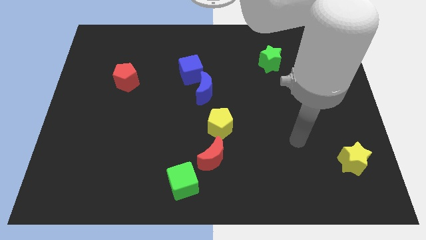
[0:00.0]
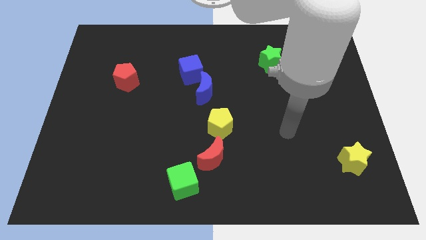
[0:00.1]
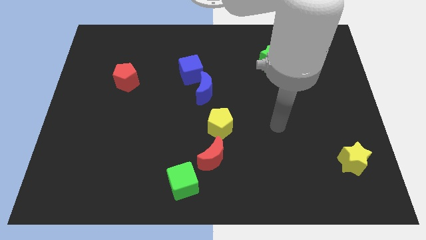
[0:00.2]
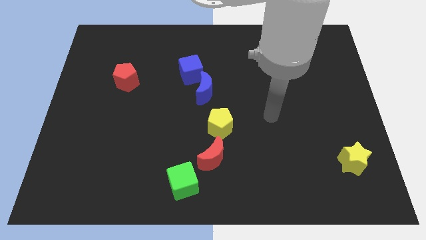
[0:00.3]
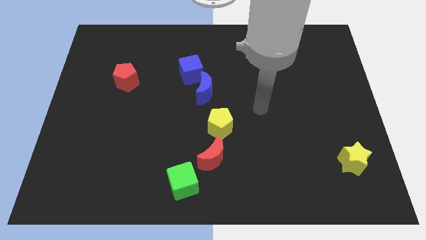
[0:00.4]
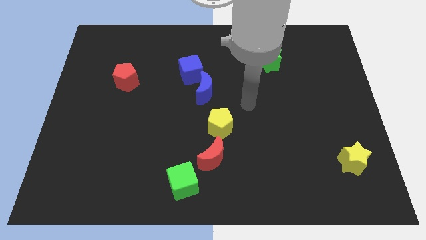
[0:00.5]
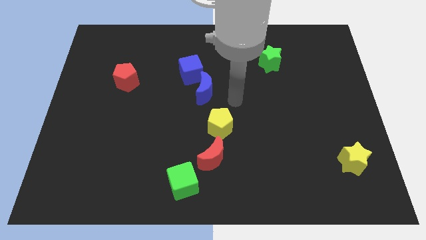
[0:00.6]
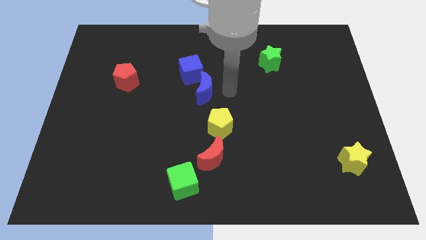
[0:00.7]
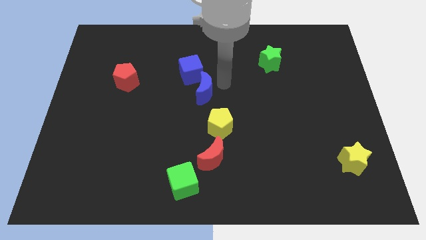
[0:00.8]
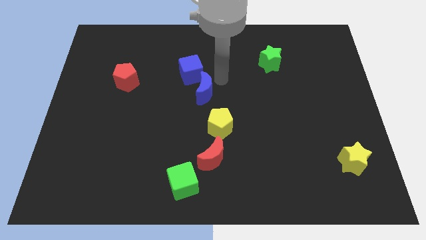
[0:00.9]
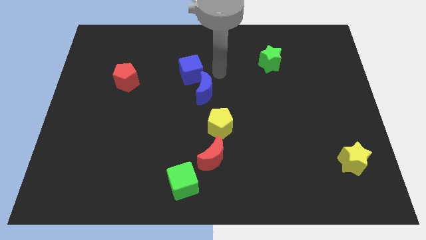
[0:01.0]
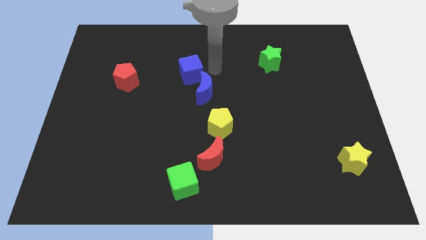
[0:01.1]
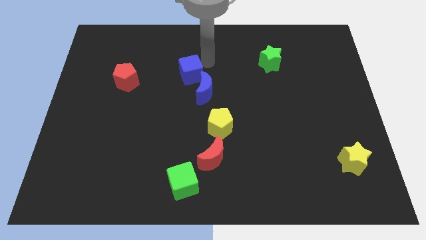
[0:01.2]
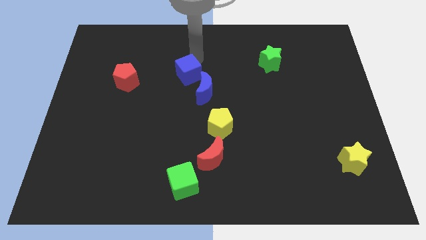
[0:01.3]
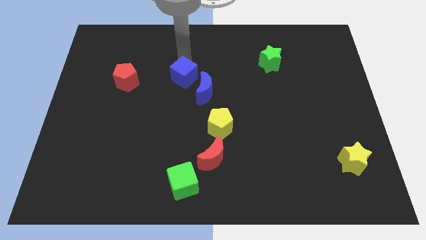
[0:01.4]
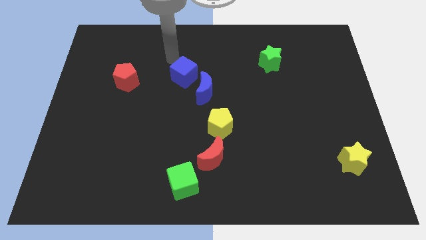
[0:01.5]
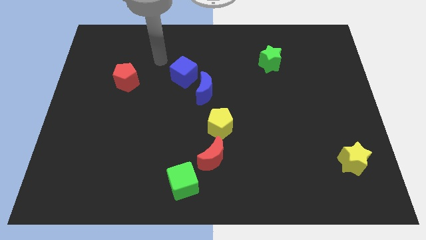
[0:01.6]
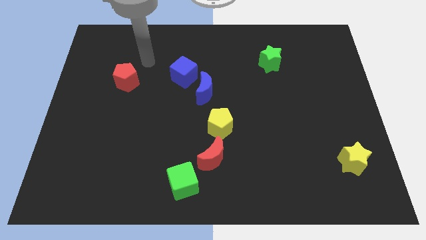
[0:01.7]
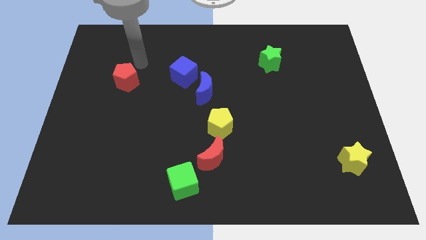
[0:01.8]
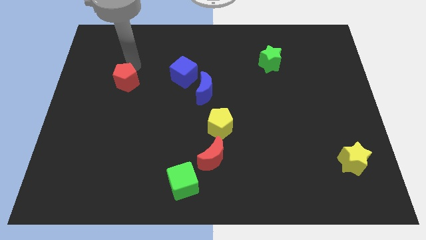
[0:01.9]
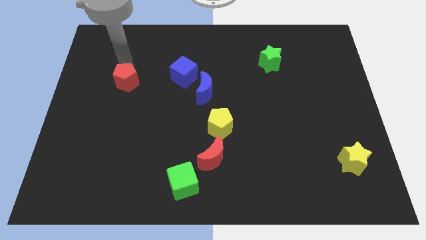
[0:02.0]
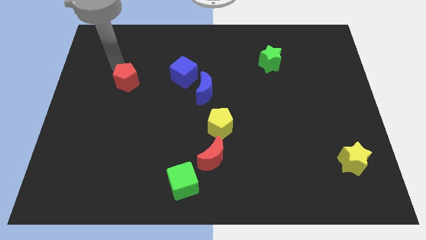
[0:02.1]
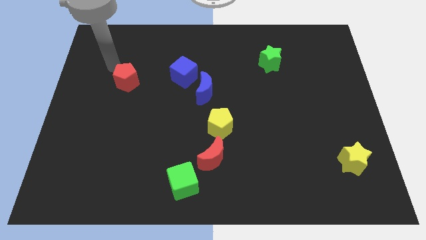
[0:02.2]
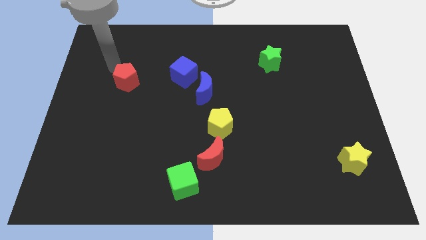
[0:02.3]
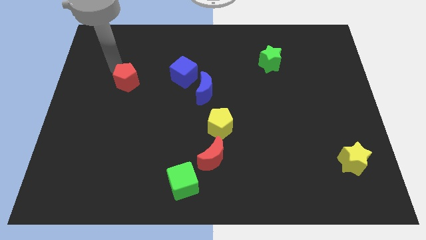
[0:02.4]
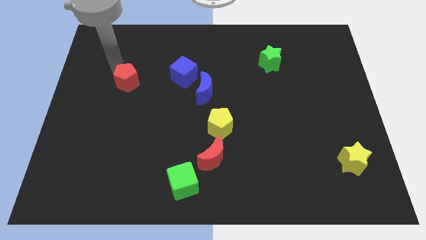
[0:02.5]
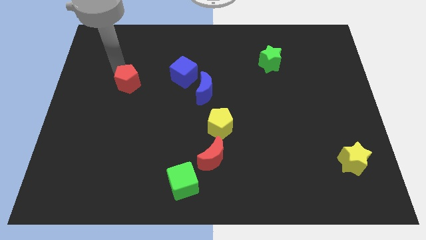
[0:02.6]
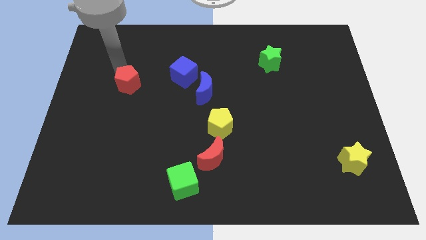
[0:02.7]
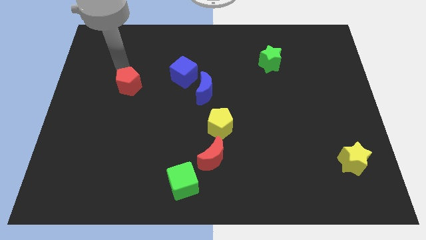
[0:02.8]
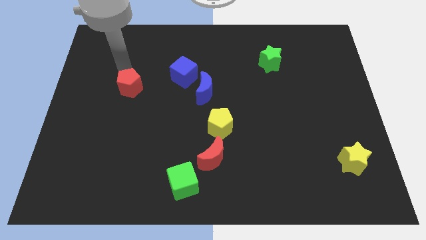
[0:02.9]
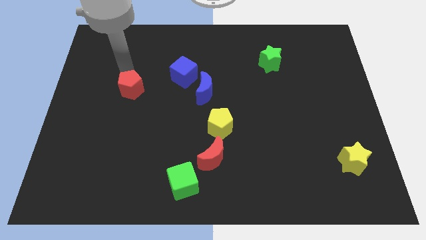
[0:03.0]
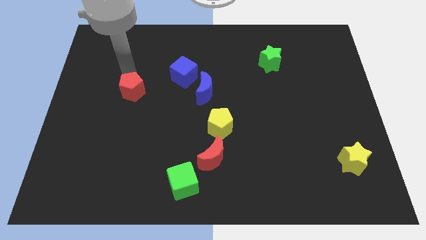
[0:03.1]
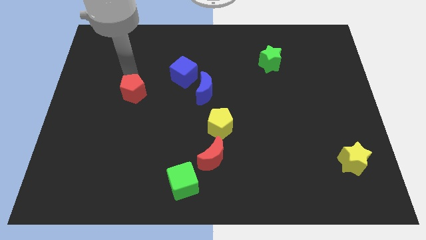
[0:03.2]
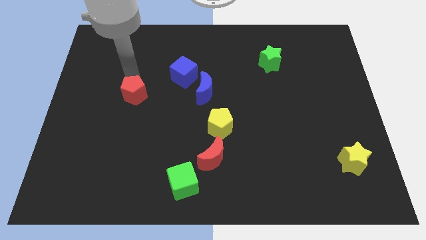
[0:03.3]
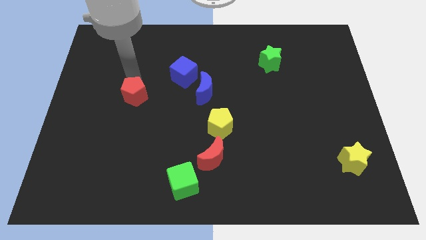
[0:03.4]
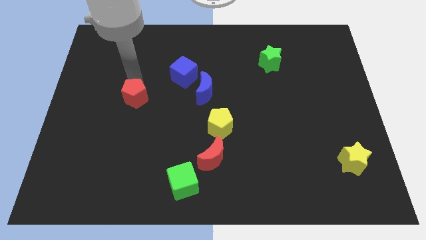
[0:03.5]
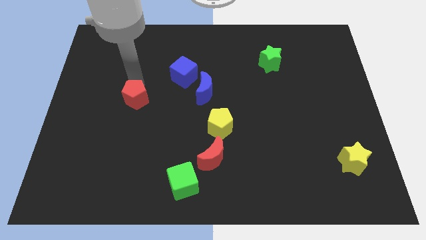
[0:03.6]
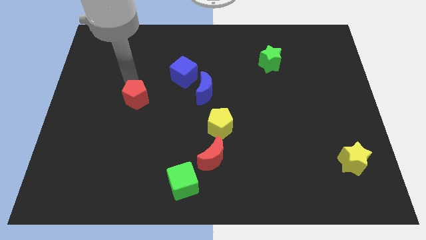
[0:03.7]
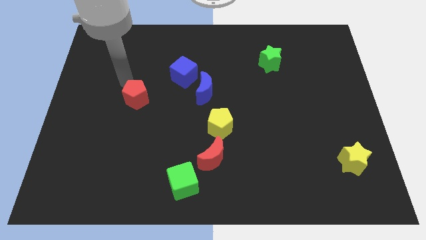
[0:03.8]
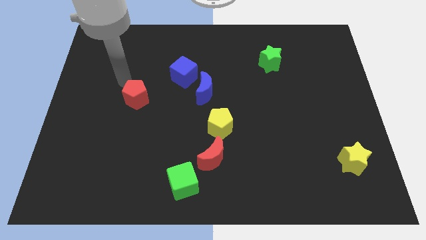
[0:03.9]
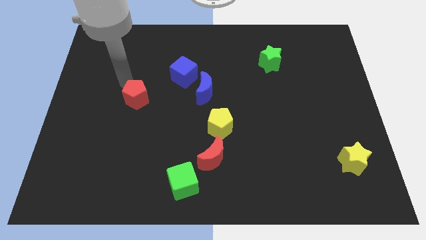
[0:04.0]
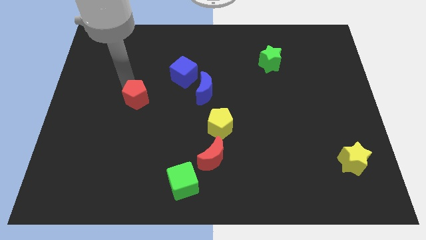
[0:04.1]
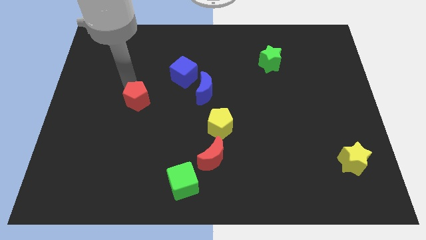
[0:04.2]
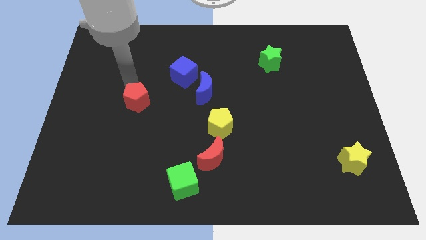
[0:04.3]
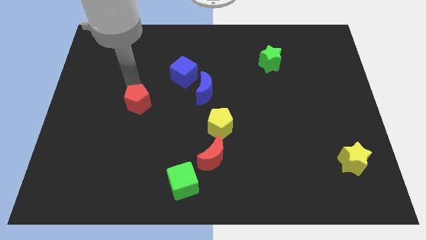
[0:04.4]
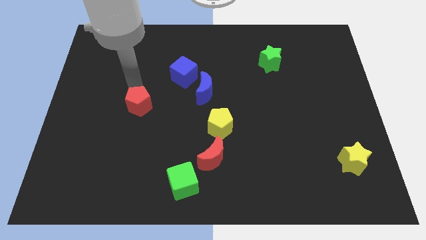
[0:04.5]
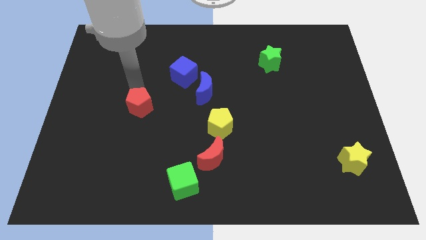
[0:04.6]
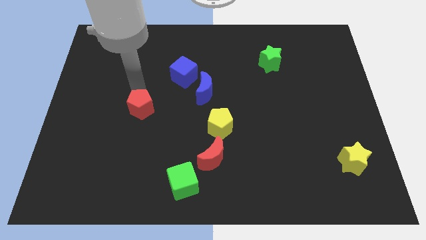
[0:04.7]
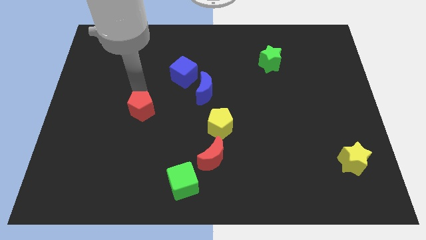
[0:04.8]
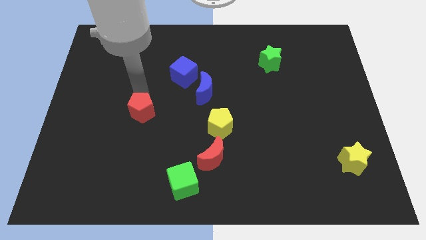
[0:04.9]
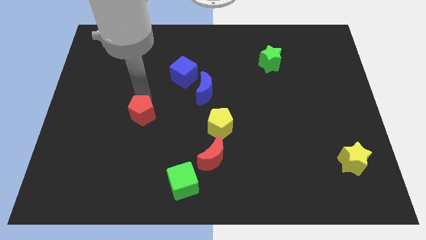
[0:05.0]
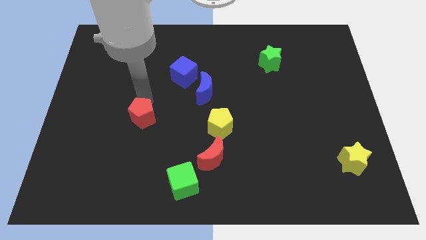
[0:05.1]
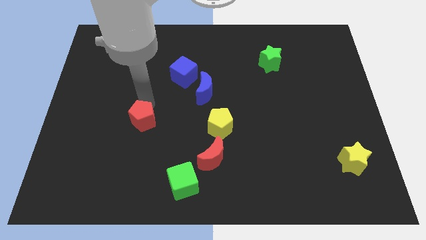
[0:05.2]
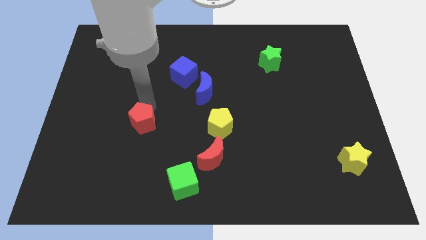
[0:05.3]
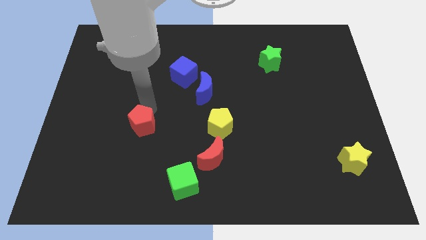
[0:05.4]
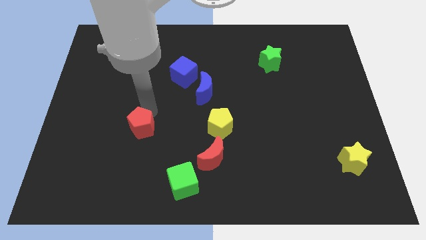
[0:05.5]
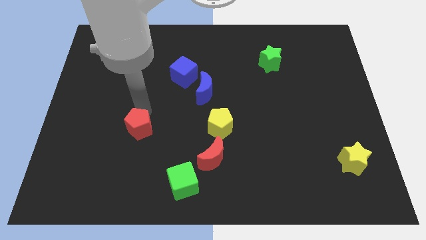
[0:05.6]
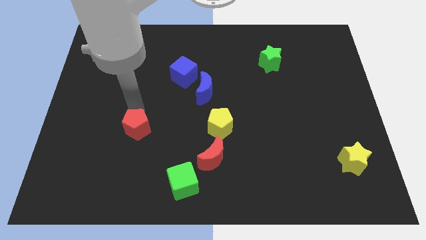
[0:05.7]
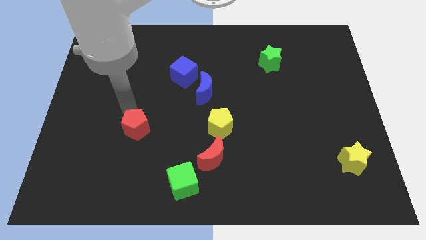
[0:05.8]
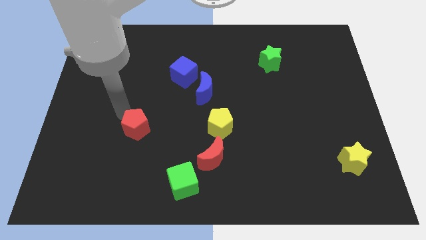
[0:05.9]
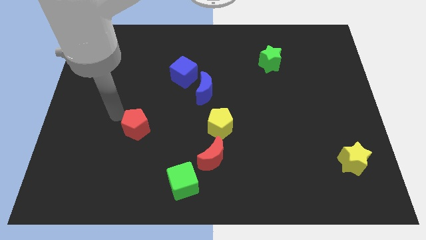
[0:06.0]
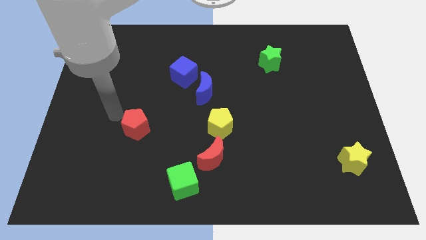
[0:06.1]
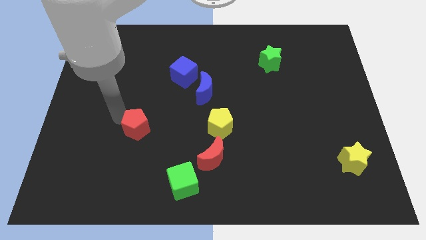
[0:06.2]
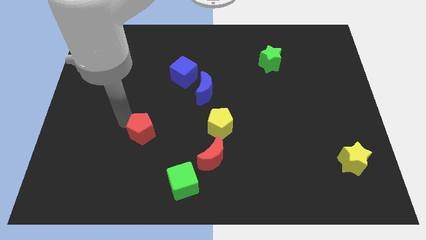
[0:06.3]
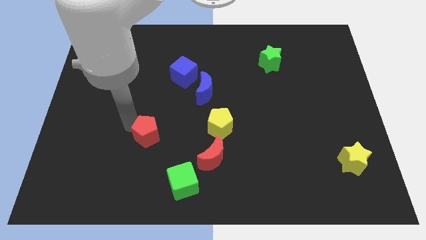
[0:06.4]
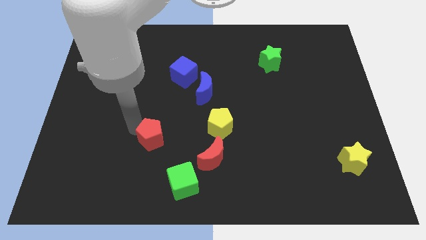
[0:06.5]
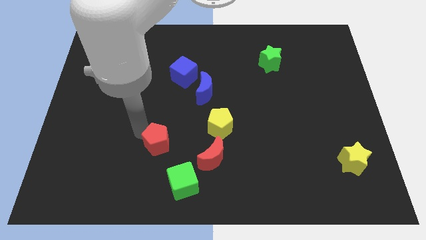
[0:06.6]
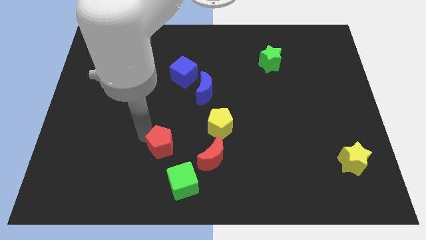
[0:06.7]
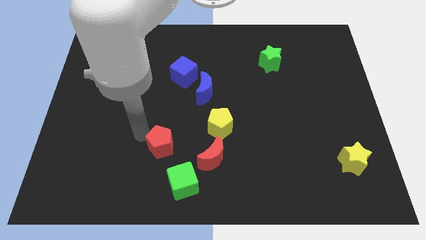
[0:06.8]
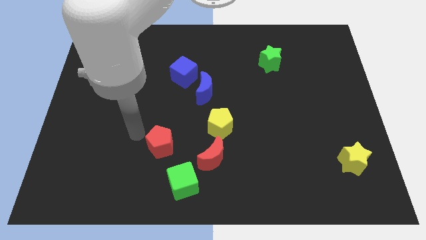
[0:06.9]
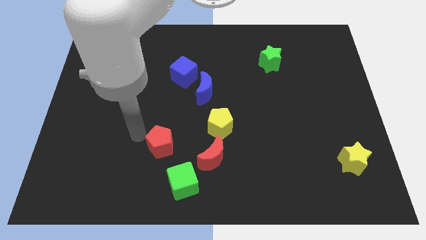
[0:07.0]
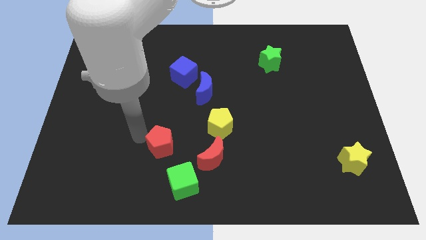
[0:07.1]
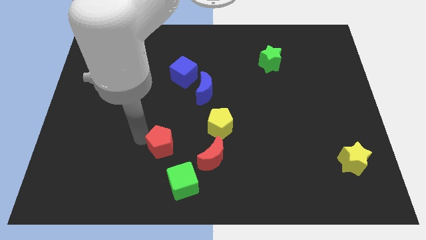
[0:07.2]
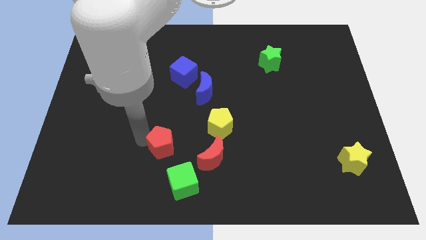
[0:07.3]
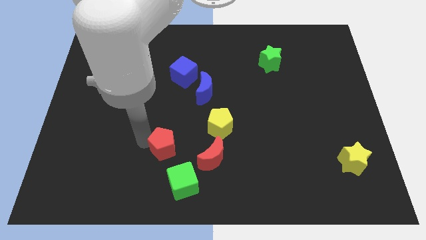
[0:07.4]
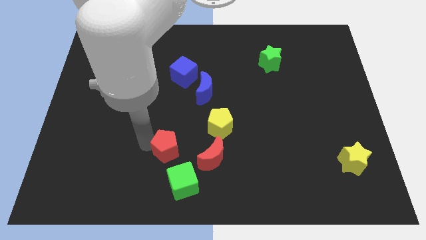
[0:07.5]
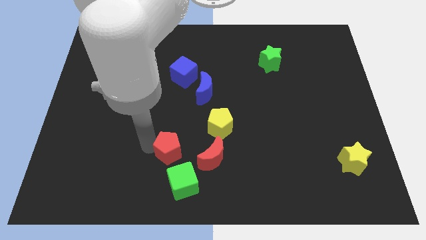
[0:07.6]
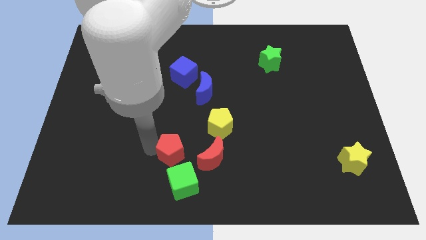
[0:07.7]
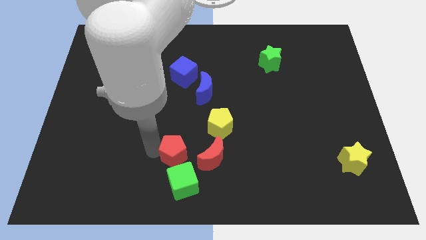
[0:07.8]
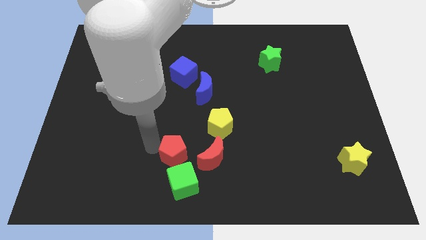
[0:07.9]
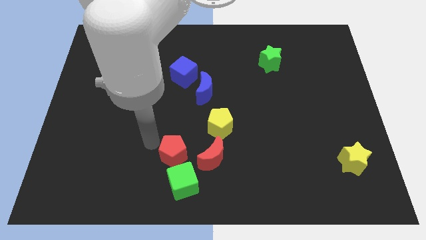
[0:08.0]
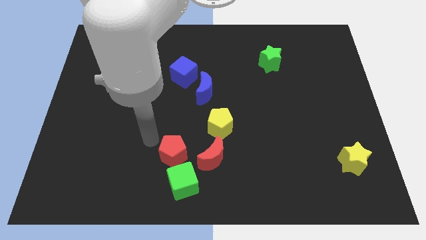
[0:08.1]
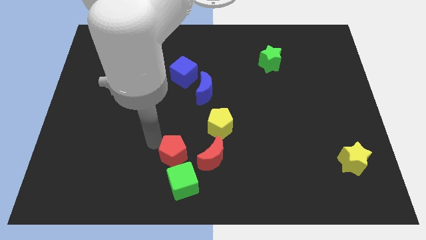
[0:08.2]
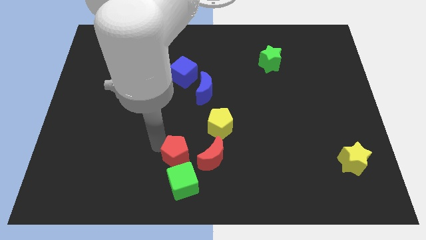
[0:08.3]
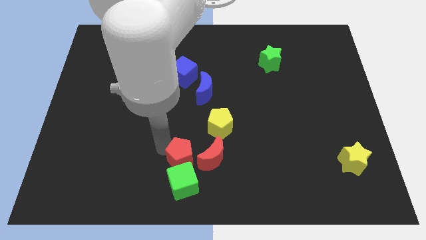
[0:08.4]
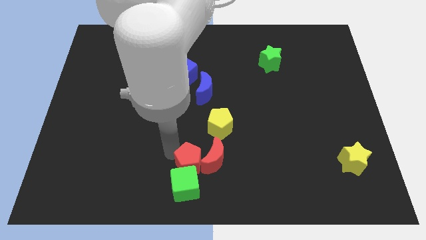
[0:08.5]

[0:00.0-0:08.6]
push the red pentagon to the bottom side
